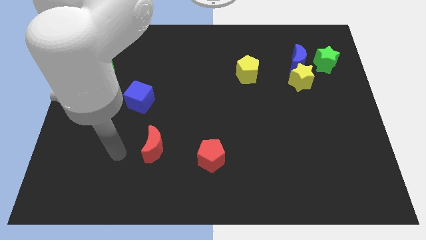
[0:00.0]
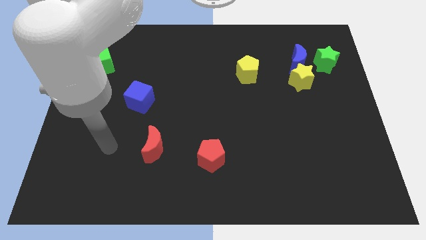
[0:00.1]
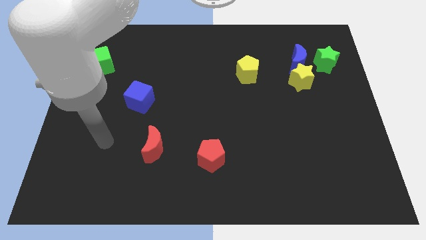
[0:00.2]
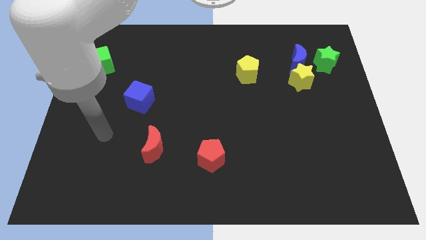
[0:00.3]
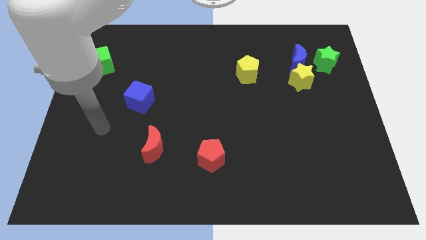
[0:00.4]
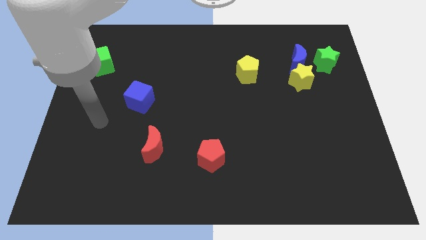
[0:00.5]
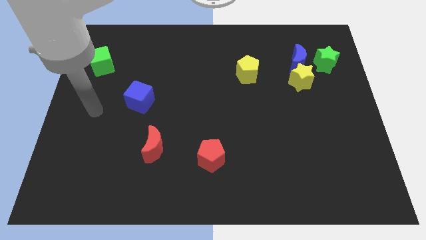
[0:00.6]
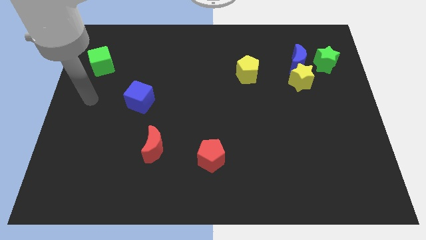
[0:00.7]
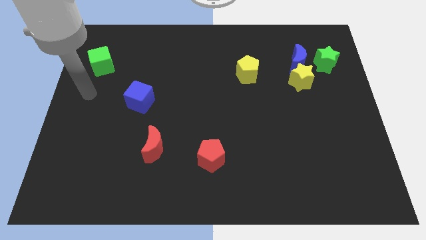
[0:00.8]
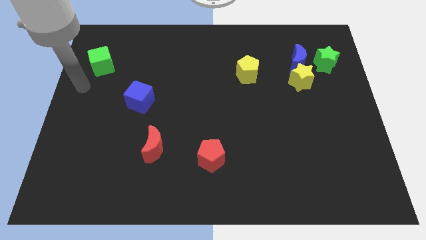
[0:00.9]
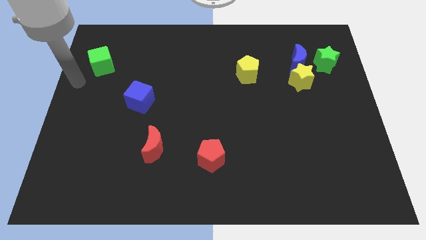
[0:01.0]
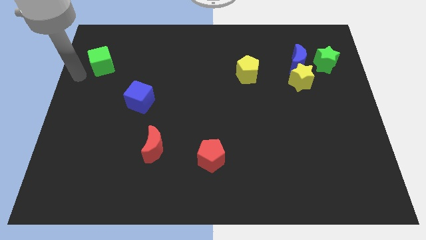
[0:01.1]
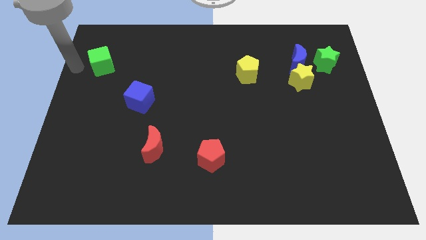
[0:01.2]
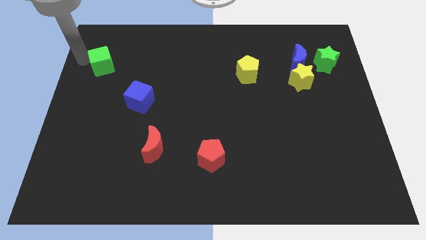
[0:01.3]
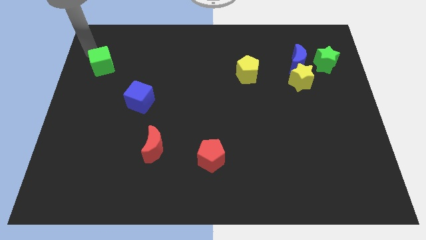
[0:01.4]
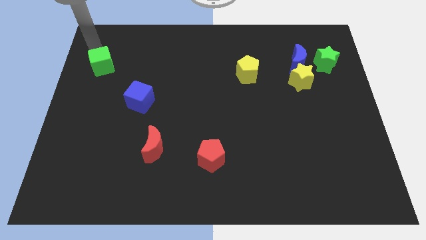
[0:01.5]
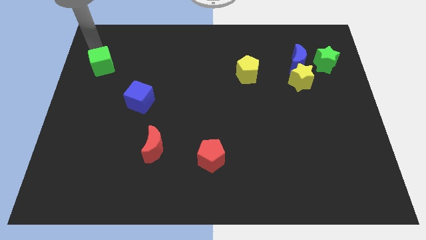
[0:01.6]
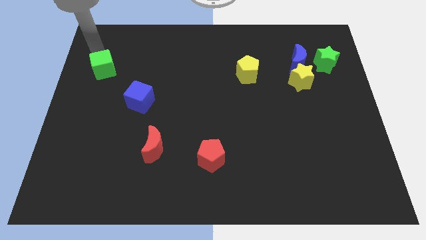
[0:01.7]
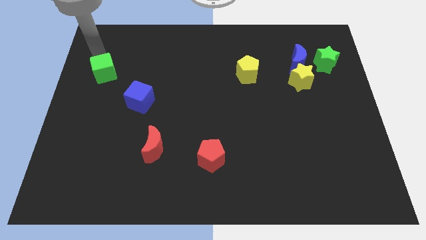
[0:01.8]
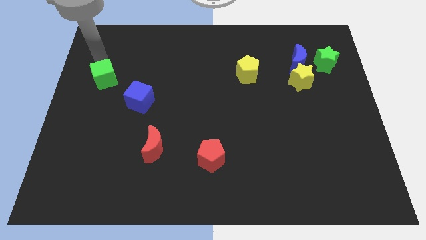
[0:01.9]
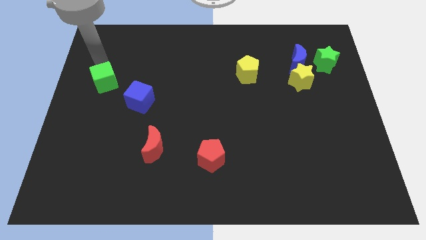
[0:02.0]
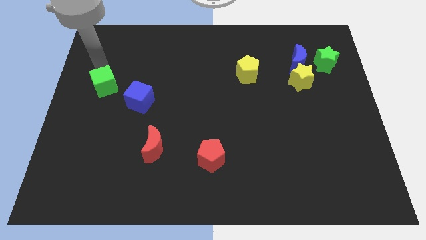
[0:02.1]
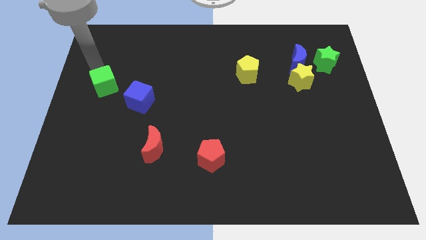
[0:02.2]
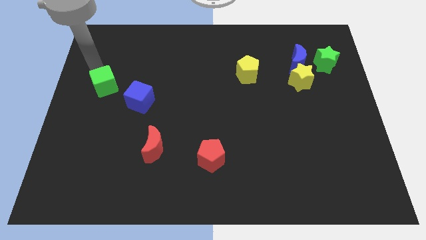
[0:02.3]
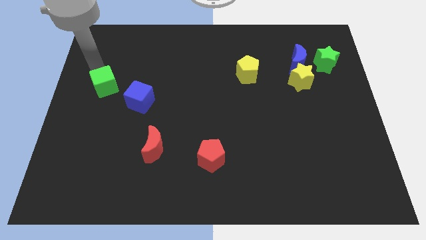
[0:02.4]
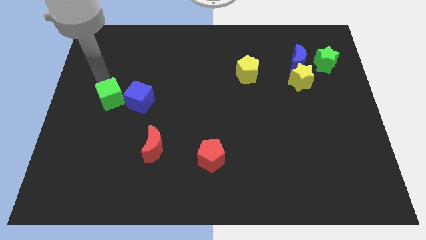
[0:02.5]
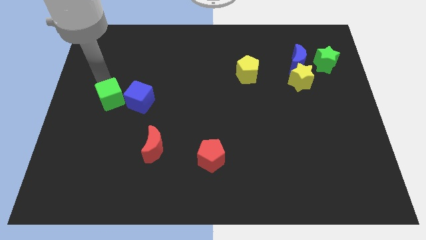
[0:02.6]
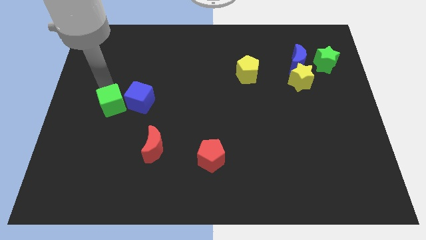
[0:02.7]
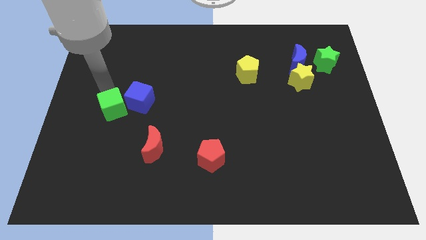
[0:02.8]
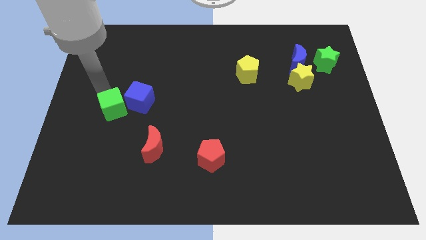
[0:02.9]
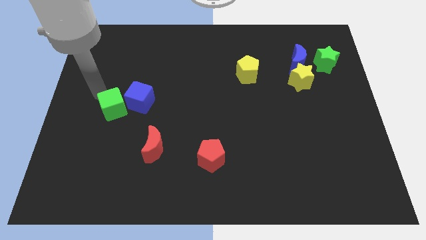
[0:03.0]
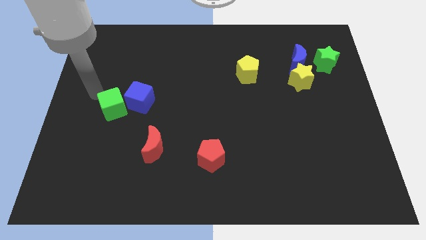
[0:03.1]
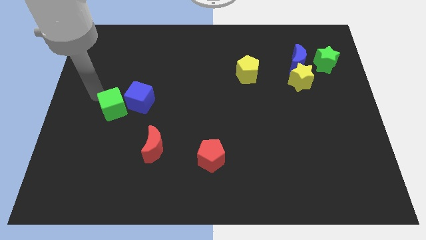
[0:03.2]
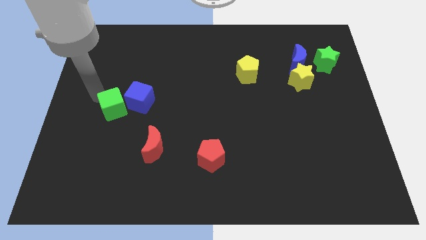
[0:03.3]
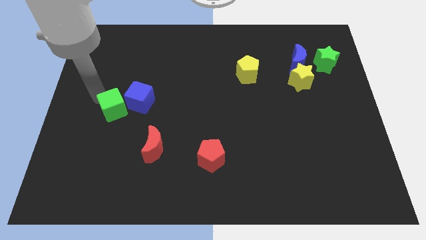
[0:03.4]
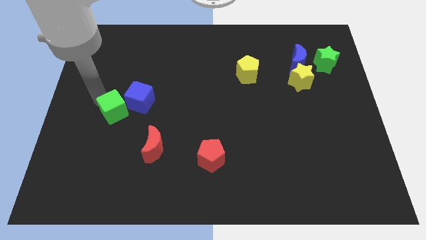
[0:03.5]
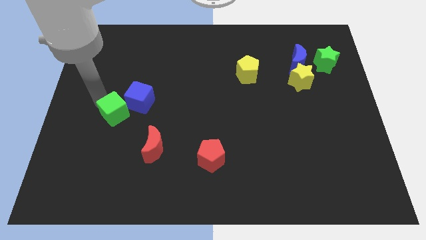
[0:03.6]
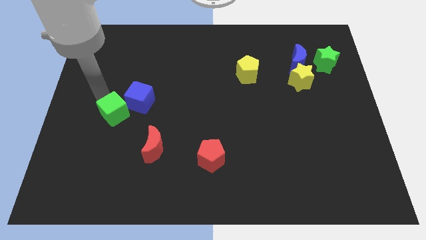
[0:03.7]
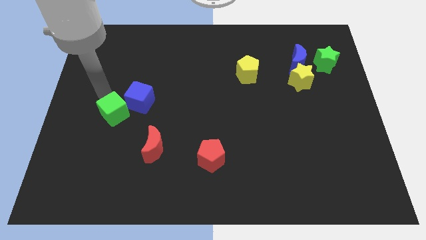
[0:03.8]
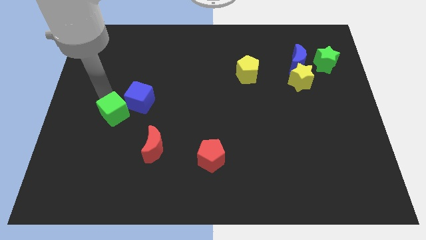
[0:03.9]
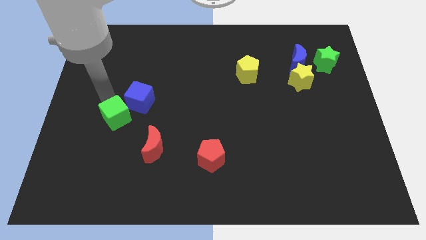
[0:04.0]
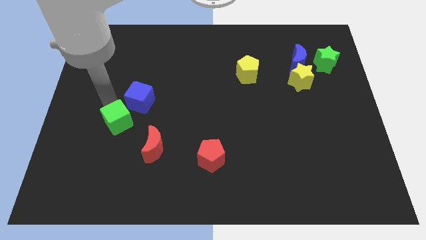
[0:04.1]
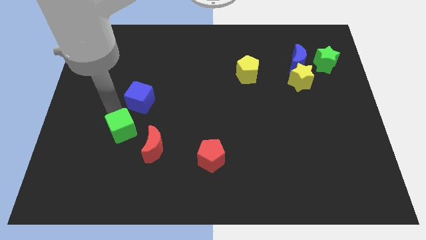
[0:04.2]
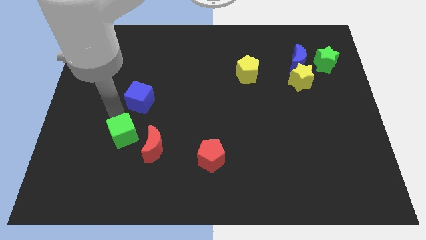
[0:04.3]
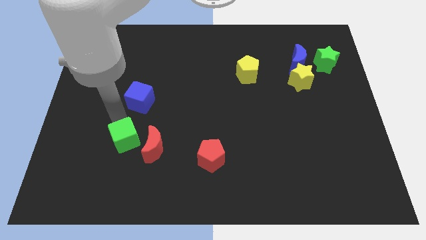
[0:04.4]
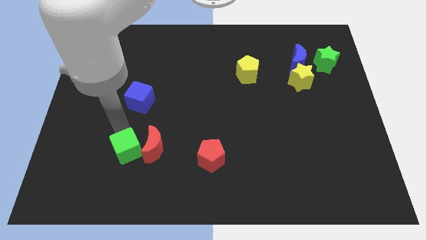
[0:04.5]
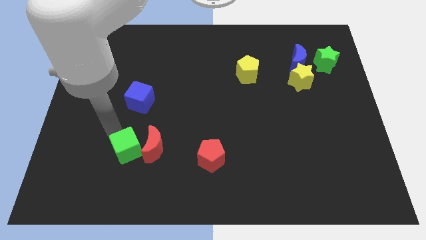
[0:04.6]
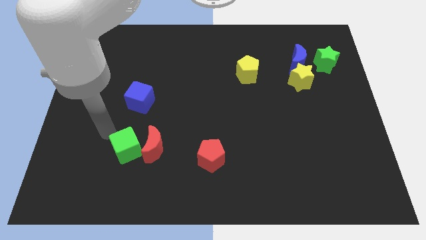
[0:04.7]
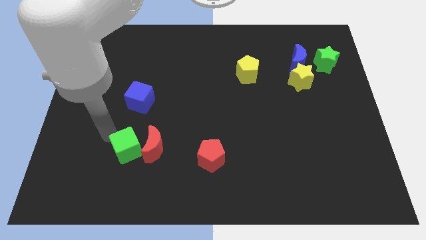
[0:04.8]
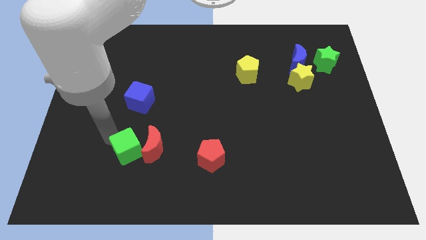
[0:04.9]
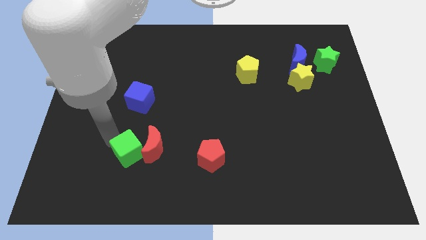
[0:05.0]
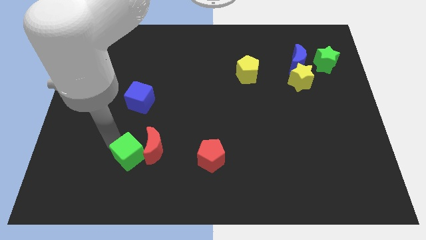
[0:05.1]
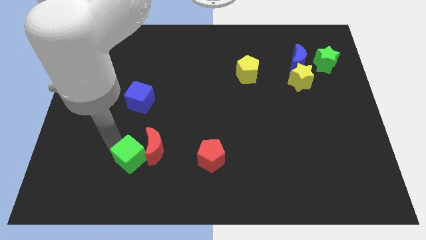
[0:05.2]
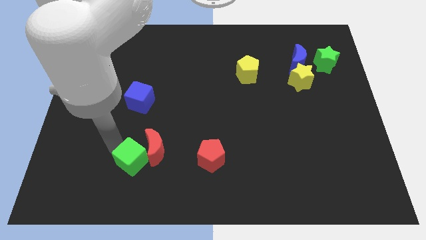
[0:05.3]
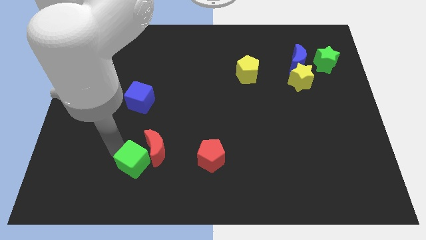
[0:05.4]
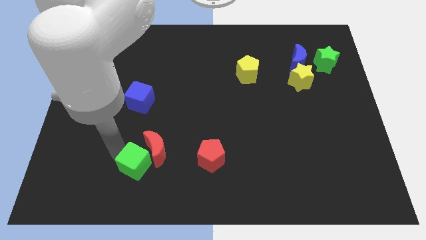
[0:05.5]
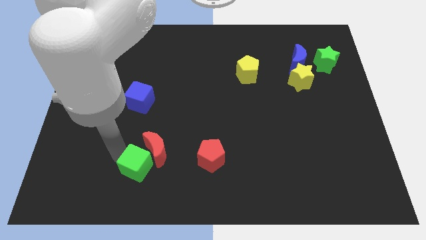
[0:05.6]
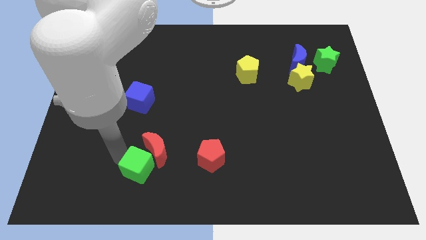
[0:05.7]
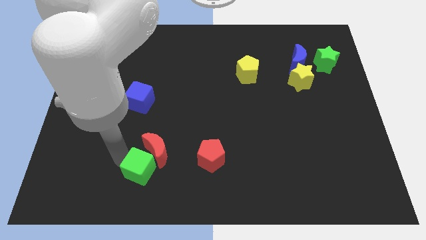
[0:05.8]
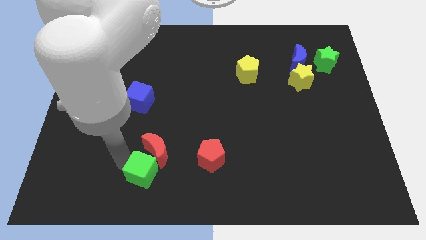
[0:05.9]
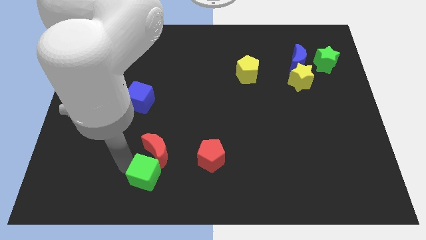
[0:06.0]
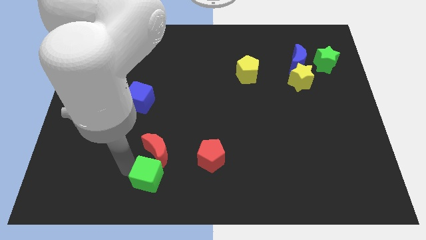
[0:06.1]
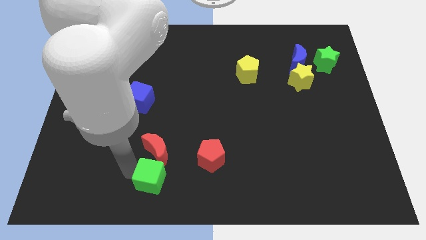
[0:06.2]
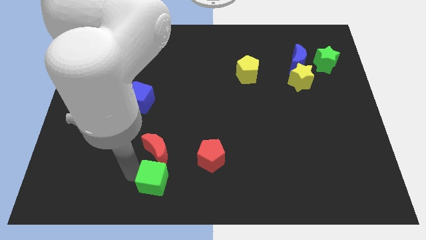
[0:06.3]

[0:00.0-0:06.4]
slide the green cube diagonally down and to the right of the red moon

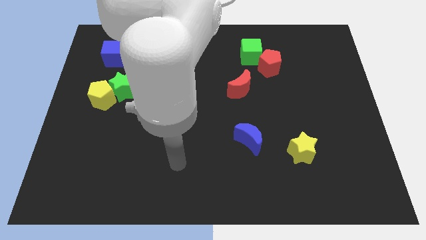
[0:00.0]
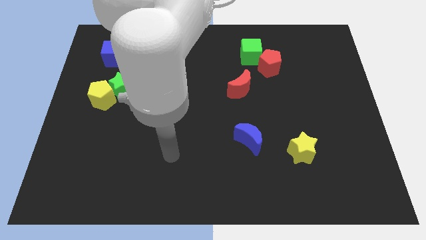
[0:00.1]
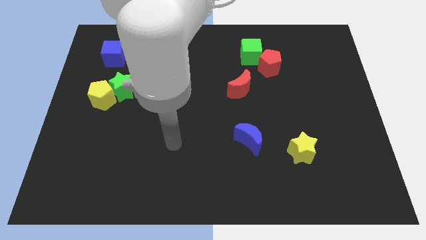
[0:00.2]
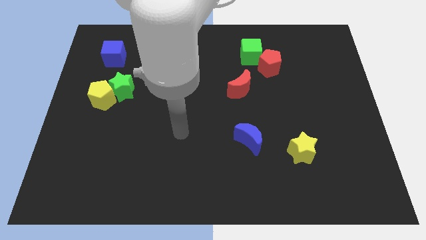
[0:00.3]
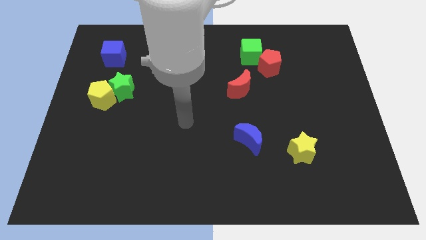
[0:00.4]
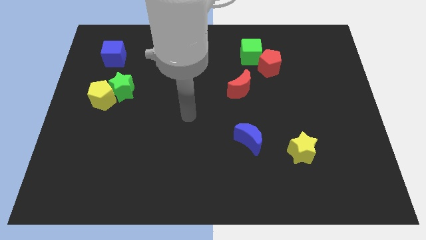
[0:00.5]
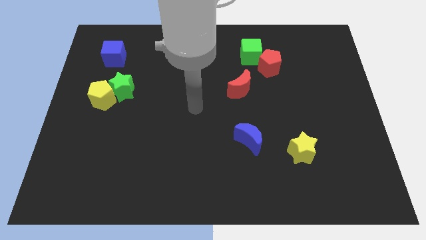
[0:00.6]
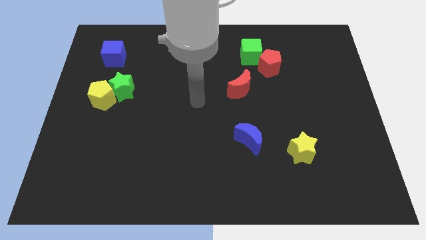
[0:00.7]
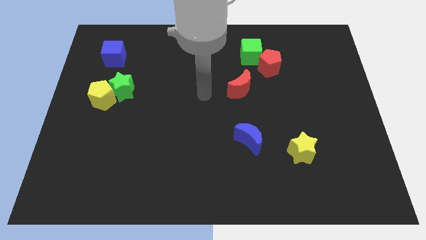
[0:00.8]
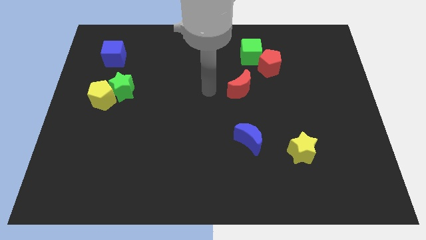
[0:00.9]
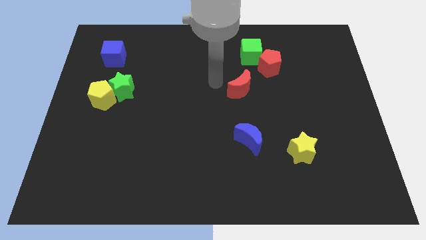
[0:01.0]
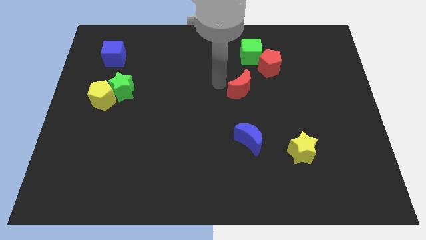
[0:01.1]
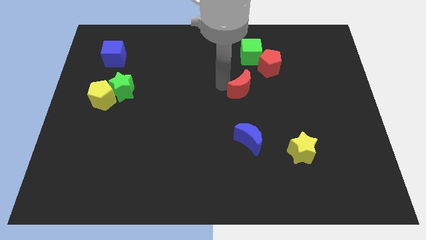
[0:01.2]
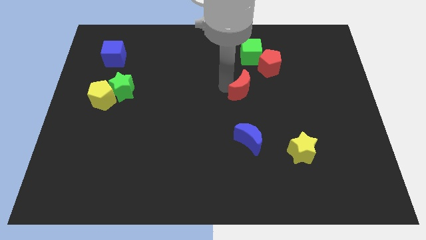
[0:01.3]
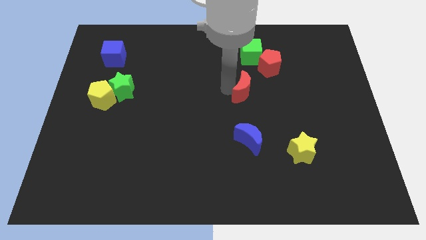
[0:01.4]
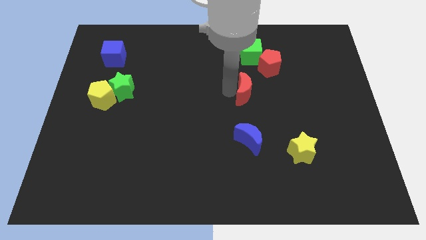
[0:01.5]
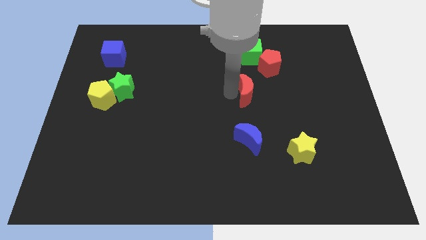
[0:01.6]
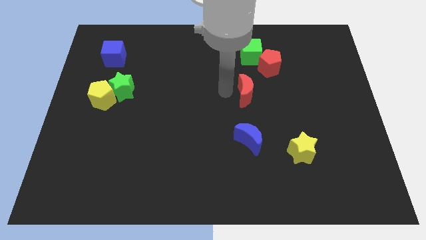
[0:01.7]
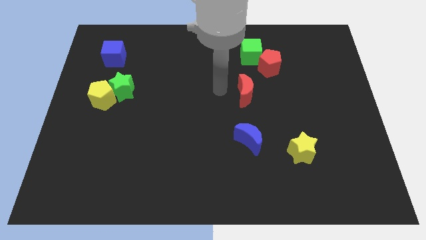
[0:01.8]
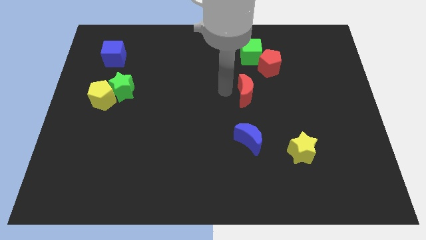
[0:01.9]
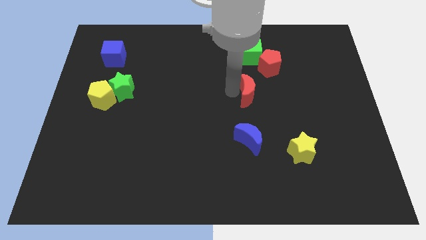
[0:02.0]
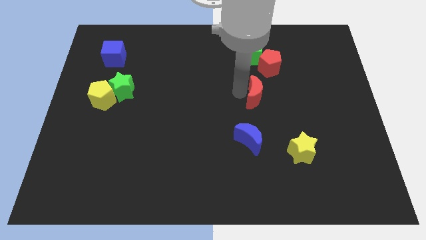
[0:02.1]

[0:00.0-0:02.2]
push the red moon below the red pentagon
